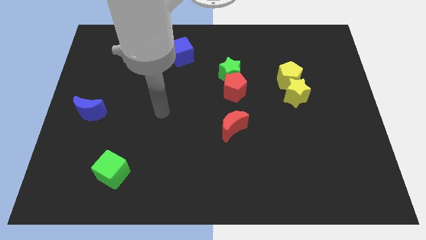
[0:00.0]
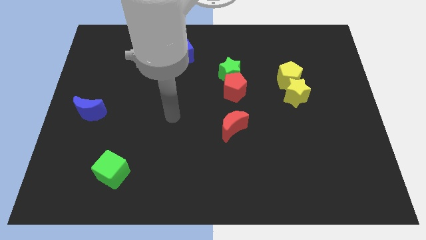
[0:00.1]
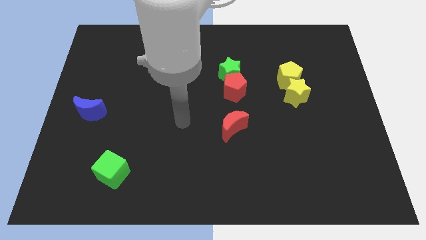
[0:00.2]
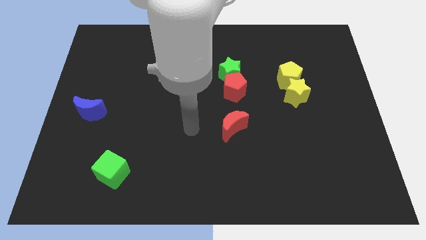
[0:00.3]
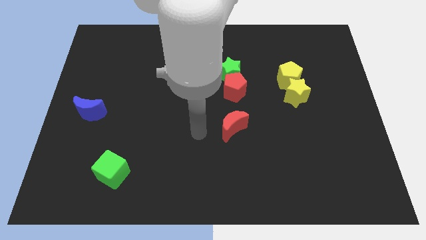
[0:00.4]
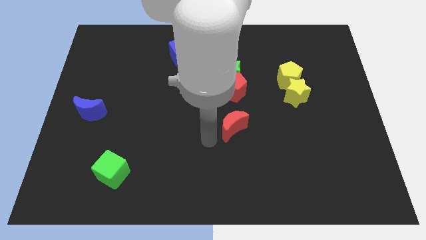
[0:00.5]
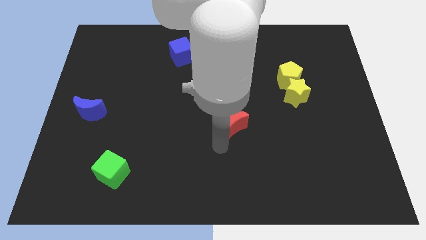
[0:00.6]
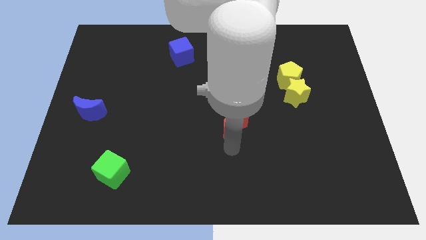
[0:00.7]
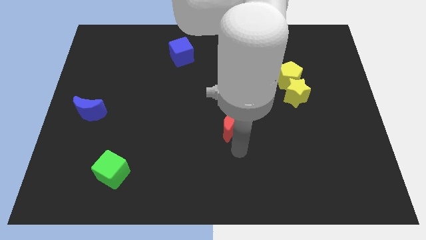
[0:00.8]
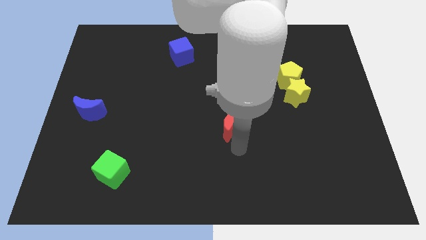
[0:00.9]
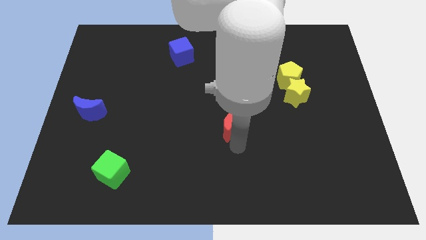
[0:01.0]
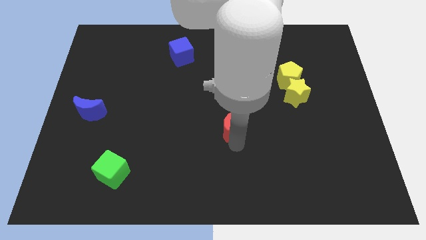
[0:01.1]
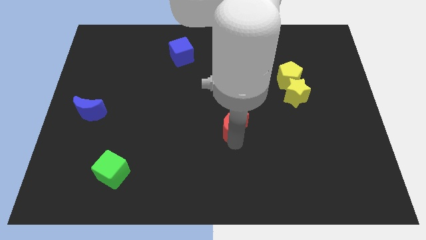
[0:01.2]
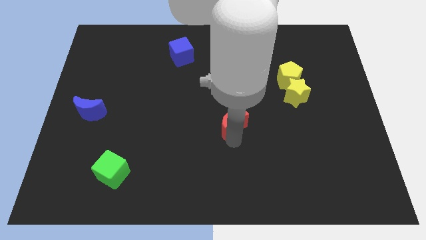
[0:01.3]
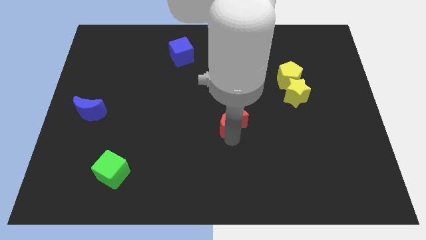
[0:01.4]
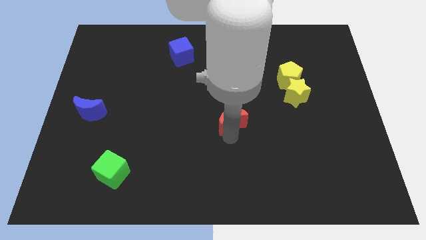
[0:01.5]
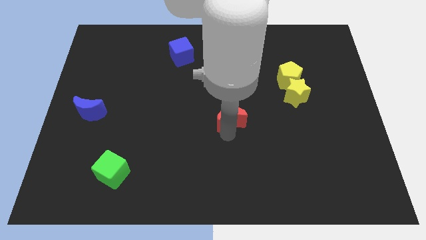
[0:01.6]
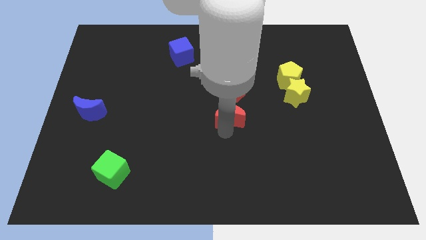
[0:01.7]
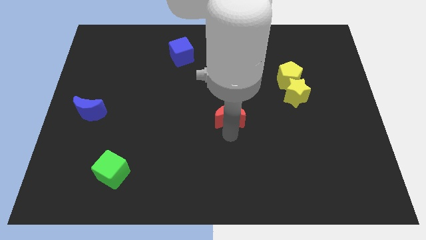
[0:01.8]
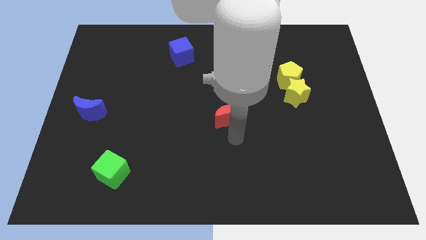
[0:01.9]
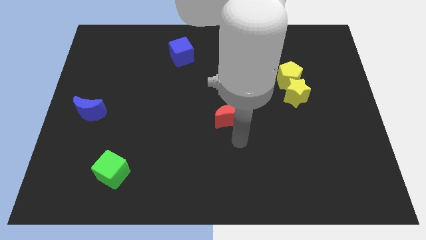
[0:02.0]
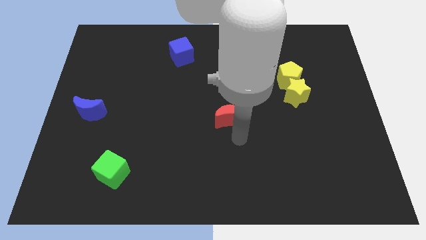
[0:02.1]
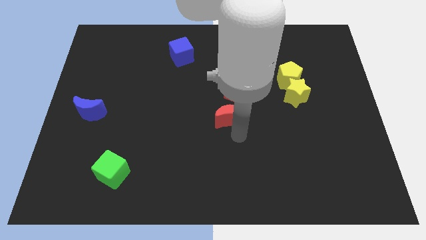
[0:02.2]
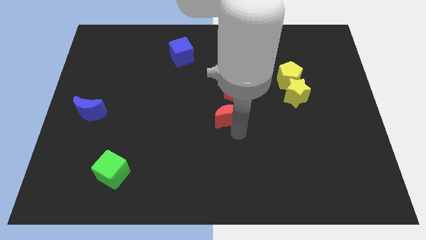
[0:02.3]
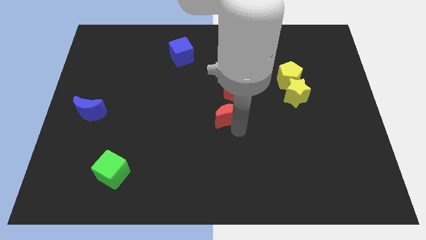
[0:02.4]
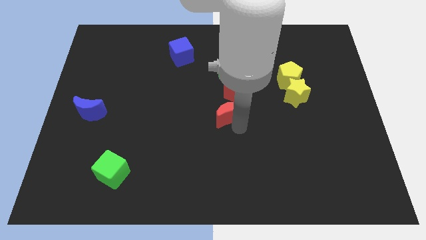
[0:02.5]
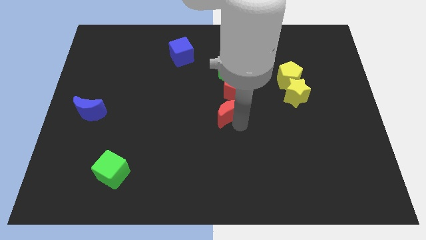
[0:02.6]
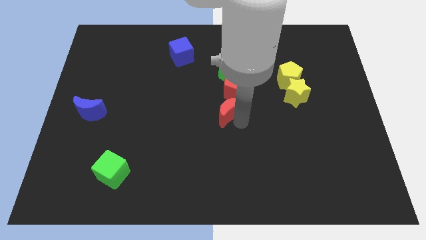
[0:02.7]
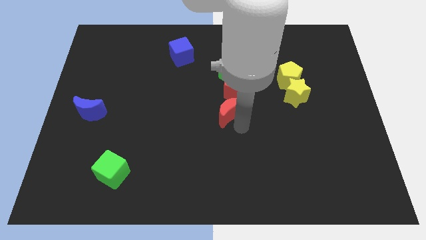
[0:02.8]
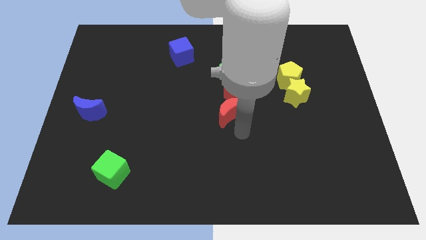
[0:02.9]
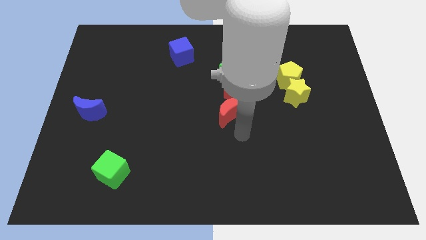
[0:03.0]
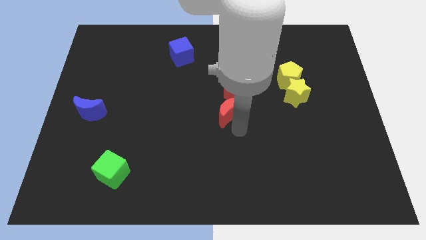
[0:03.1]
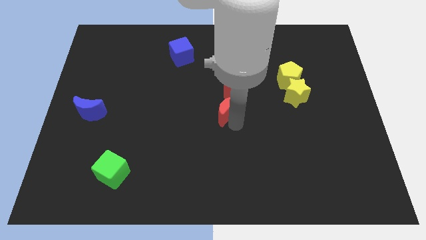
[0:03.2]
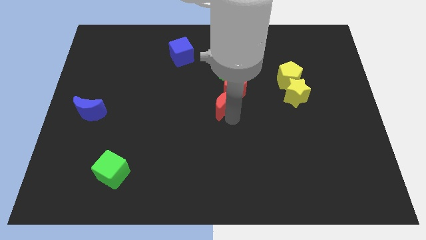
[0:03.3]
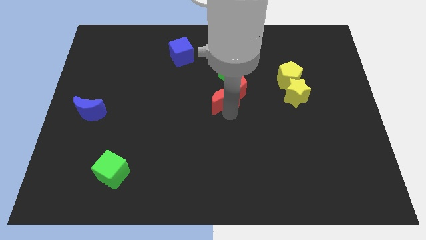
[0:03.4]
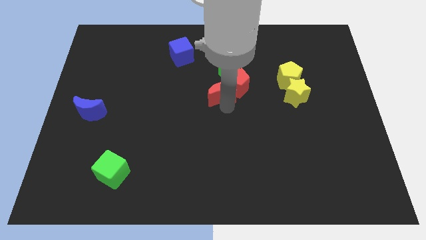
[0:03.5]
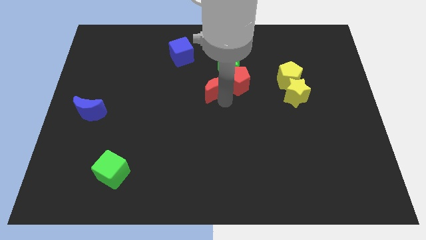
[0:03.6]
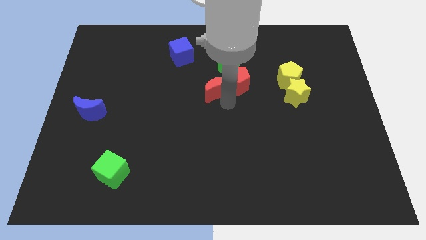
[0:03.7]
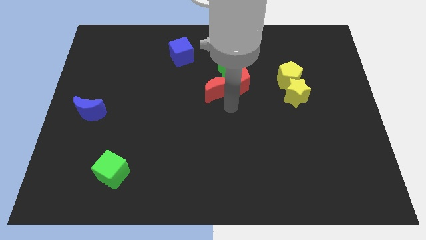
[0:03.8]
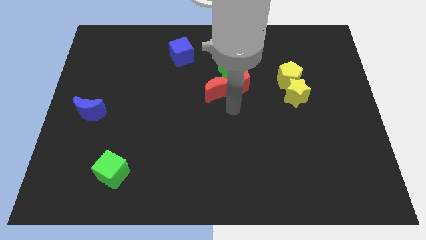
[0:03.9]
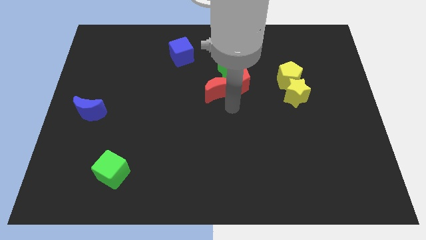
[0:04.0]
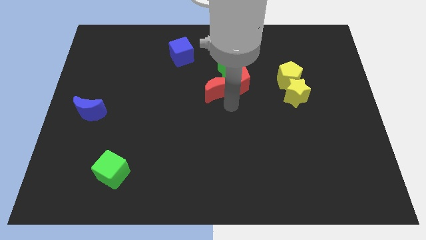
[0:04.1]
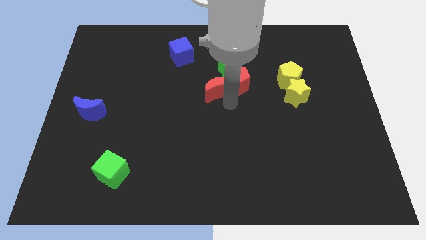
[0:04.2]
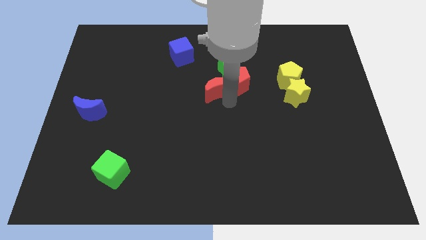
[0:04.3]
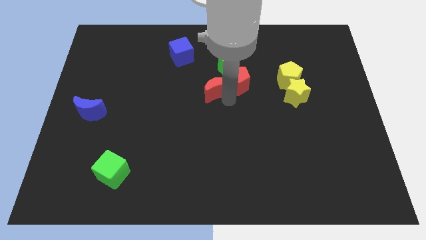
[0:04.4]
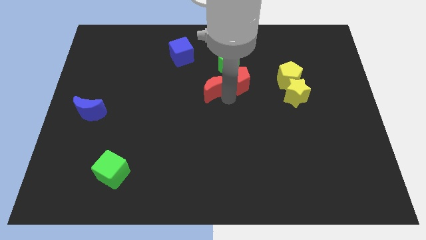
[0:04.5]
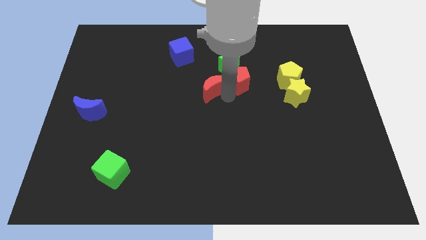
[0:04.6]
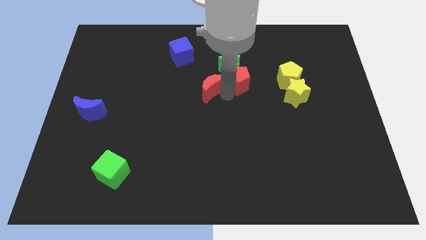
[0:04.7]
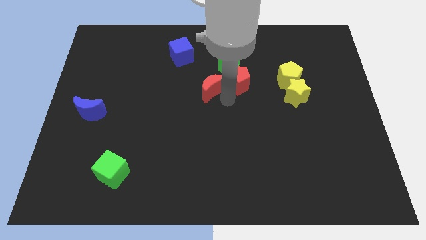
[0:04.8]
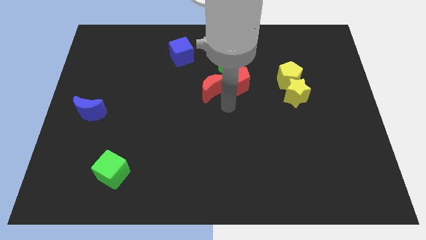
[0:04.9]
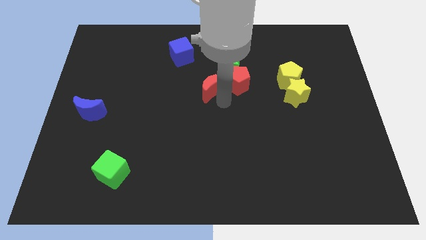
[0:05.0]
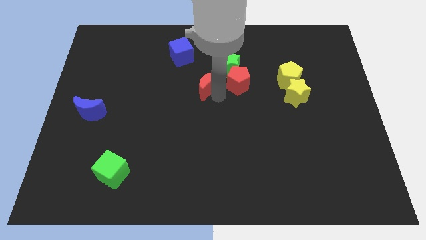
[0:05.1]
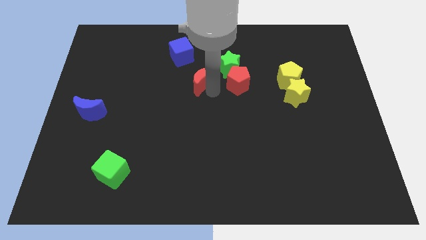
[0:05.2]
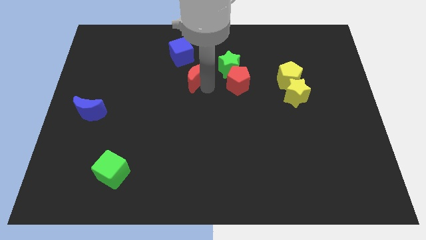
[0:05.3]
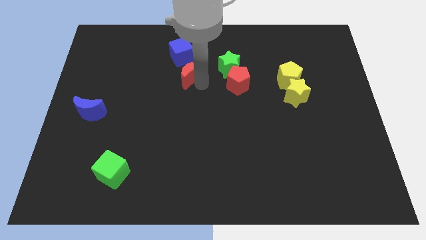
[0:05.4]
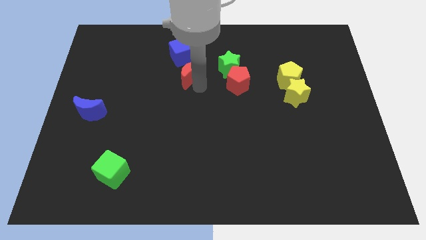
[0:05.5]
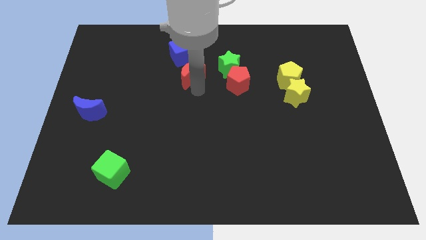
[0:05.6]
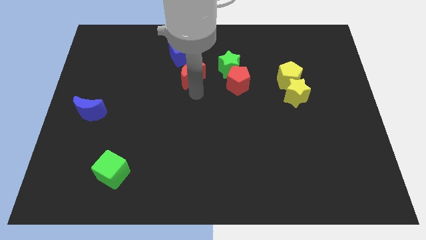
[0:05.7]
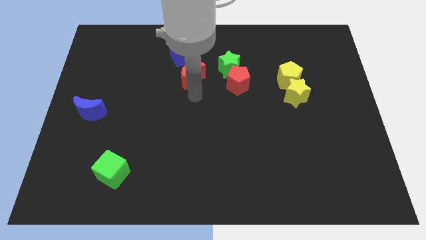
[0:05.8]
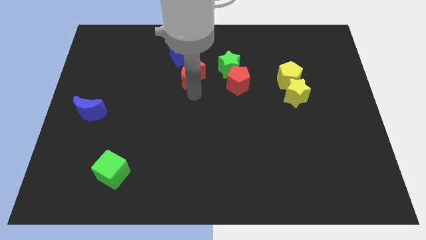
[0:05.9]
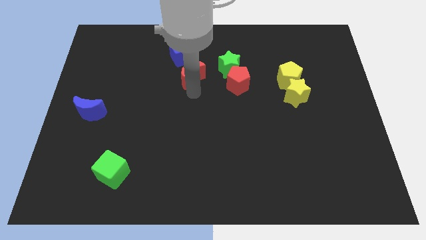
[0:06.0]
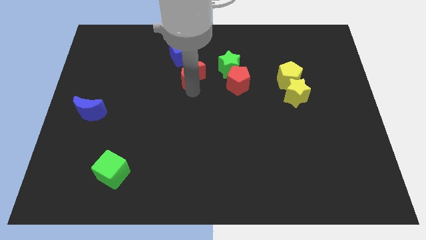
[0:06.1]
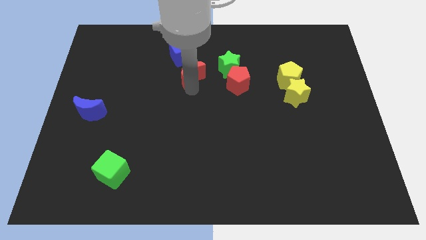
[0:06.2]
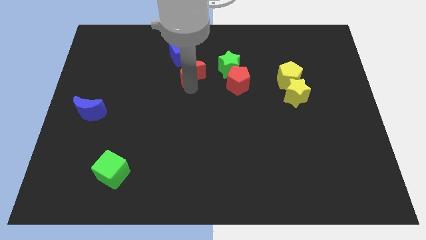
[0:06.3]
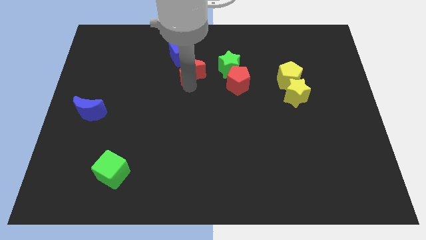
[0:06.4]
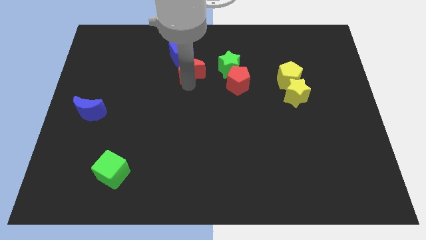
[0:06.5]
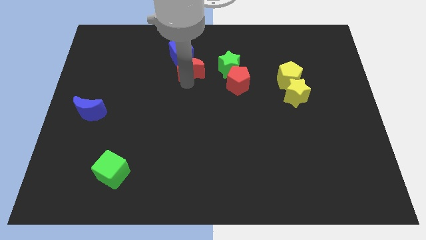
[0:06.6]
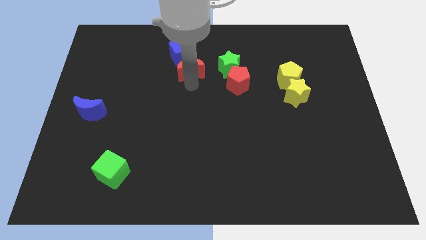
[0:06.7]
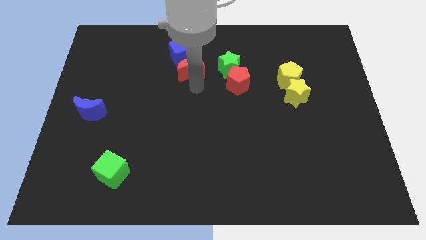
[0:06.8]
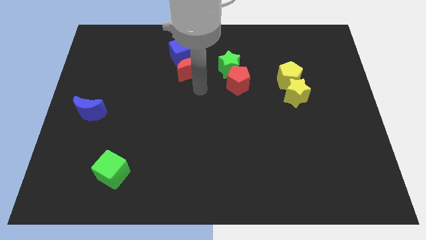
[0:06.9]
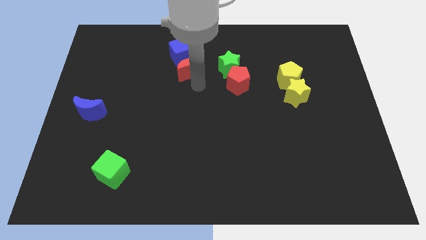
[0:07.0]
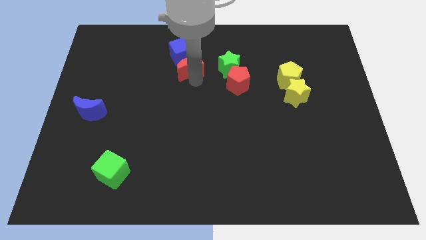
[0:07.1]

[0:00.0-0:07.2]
put the red moon next to the blue cube
